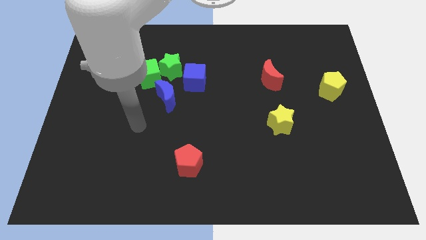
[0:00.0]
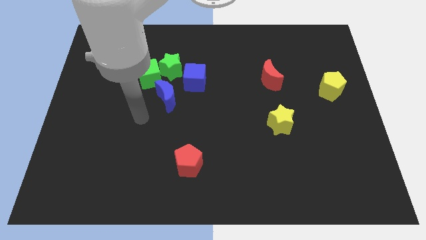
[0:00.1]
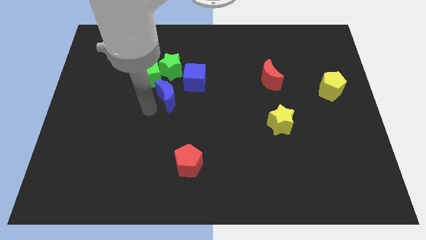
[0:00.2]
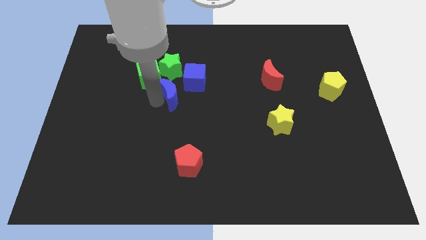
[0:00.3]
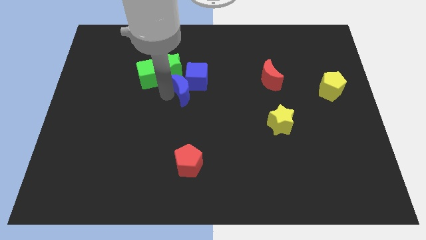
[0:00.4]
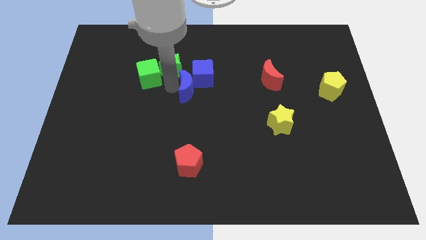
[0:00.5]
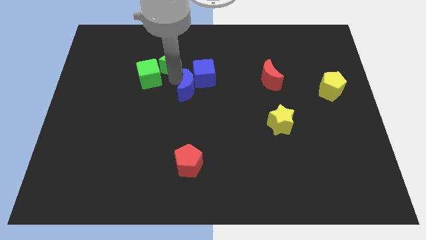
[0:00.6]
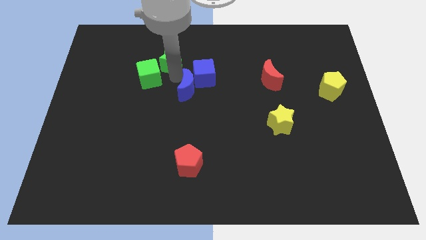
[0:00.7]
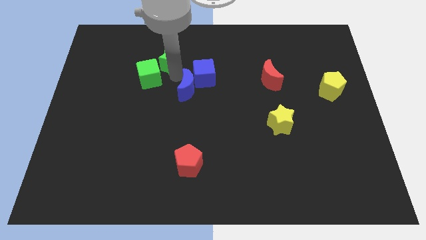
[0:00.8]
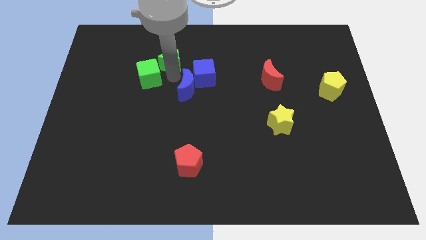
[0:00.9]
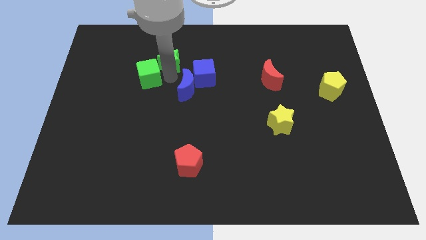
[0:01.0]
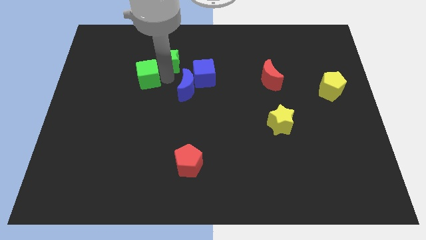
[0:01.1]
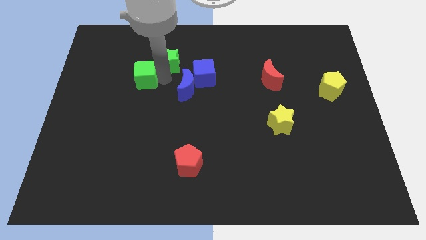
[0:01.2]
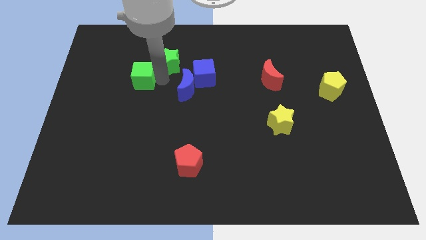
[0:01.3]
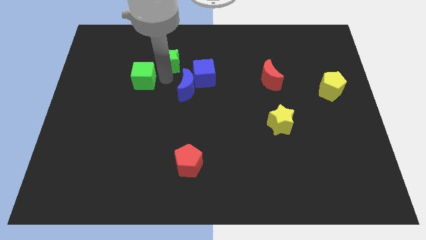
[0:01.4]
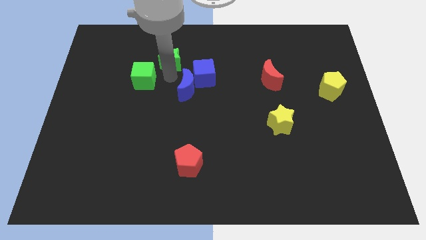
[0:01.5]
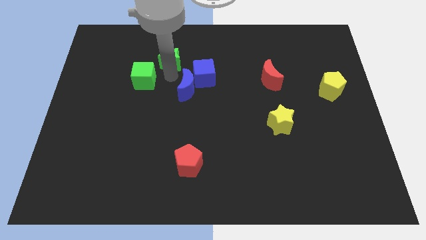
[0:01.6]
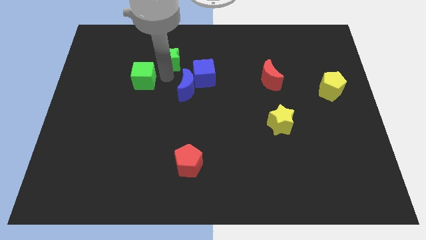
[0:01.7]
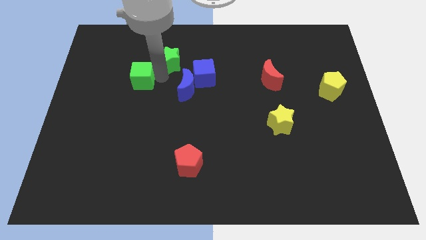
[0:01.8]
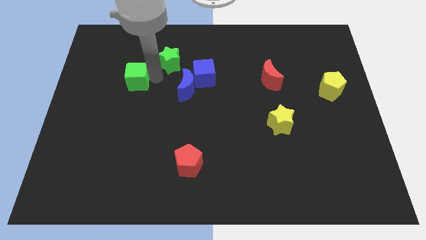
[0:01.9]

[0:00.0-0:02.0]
pull the green cube apart from the green star and blue moon

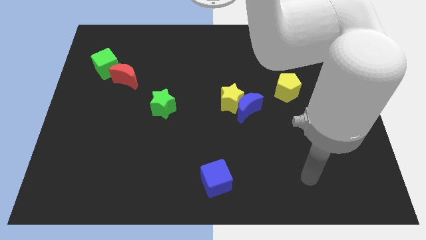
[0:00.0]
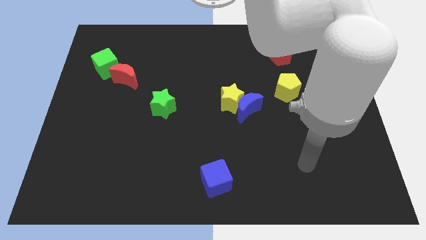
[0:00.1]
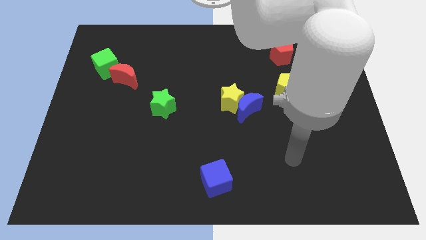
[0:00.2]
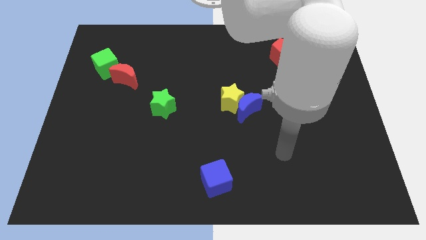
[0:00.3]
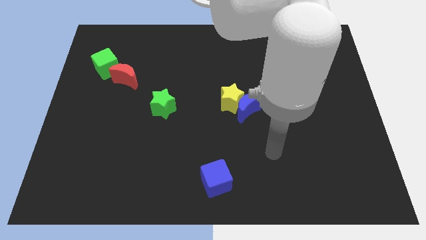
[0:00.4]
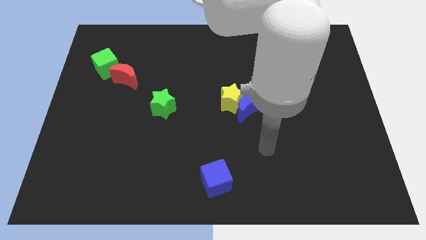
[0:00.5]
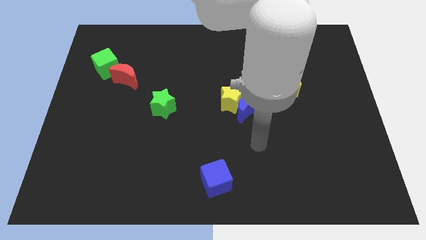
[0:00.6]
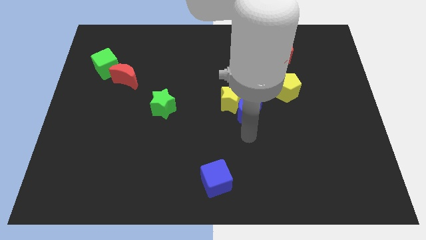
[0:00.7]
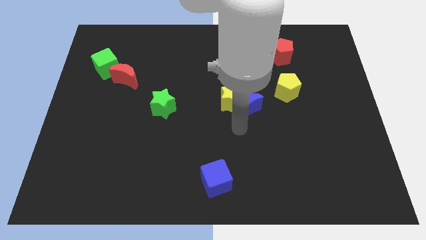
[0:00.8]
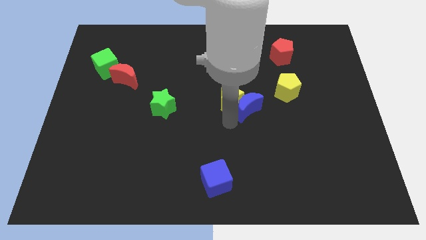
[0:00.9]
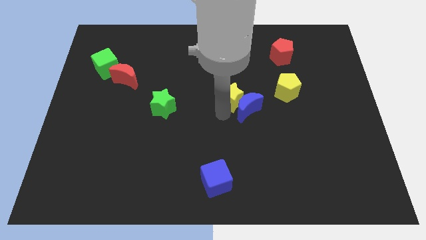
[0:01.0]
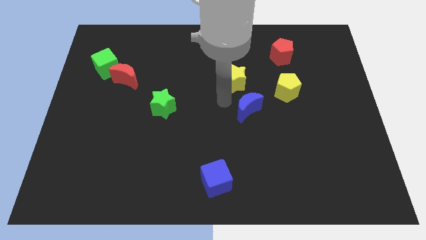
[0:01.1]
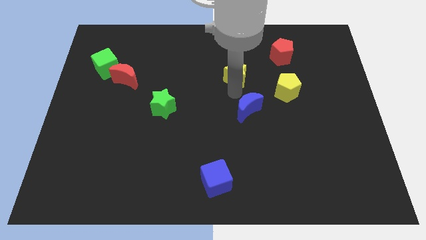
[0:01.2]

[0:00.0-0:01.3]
pull the blue moon apart from the yellow star

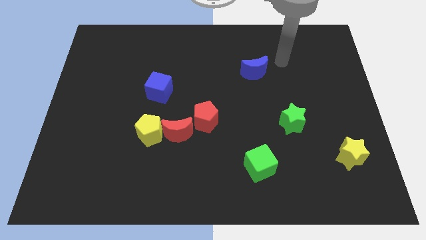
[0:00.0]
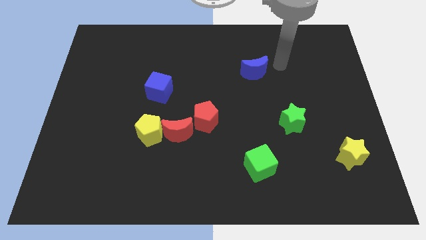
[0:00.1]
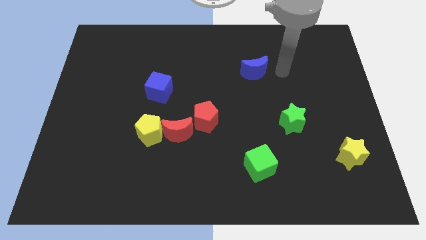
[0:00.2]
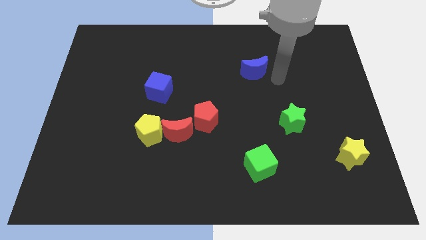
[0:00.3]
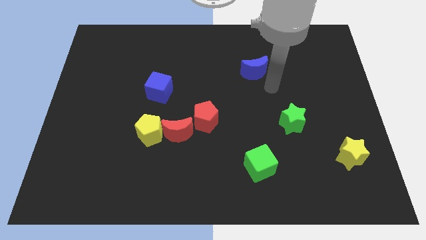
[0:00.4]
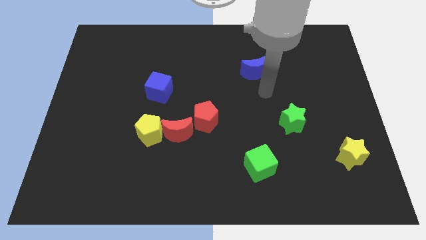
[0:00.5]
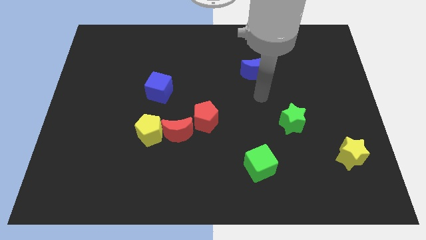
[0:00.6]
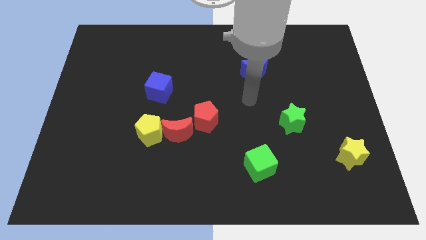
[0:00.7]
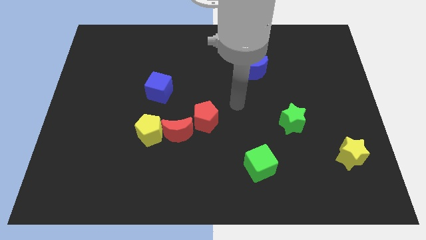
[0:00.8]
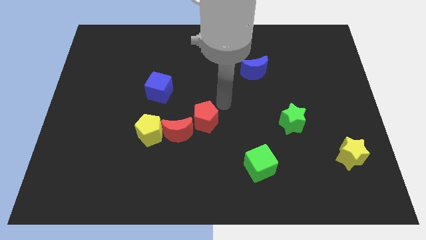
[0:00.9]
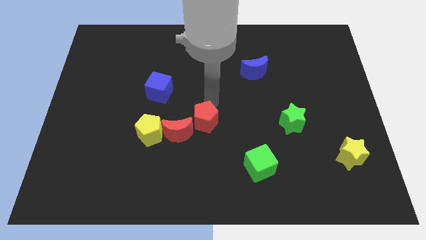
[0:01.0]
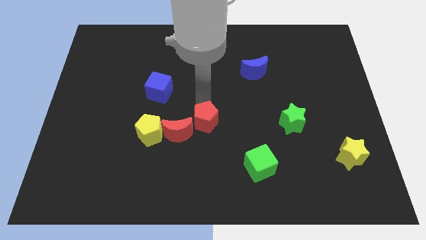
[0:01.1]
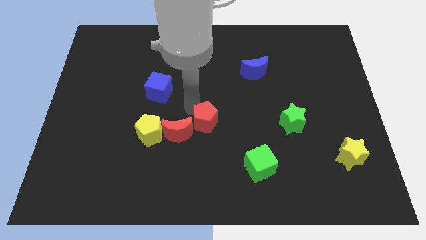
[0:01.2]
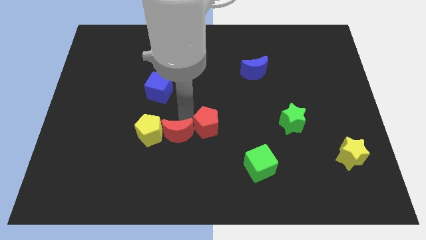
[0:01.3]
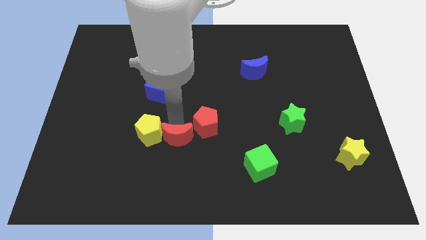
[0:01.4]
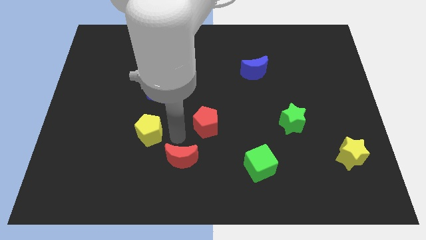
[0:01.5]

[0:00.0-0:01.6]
move the yellow pentagon away from the red moon

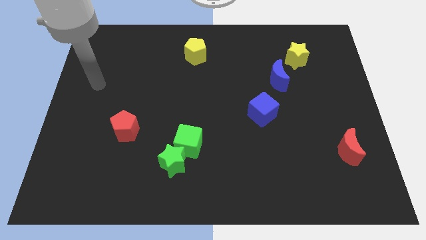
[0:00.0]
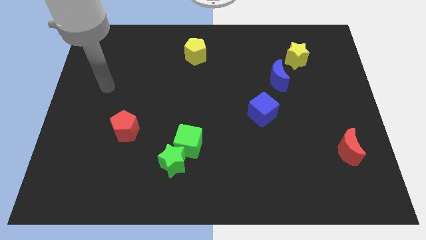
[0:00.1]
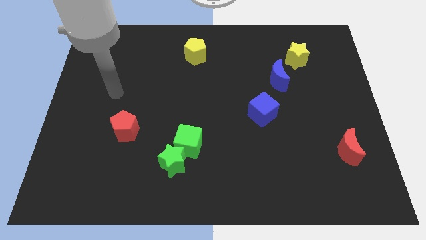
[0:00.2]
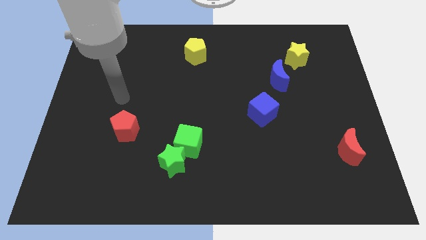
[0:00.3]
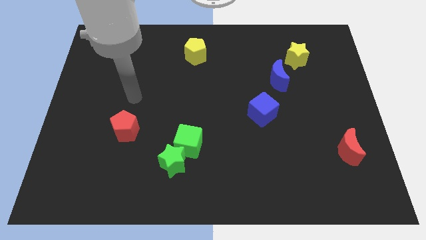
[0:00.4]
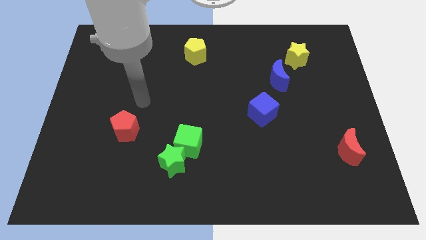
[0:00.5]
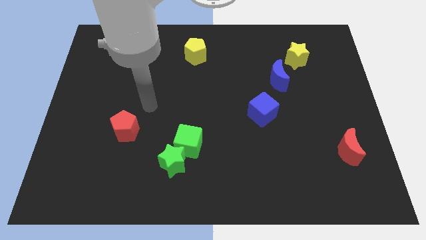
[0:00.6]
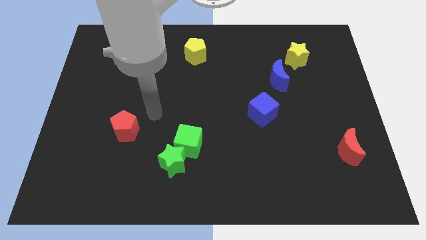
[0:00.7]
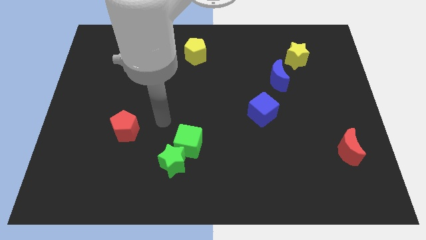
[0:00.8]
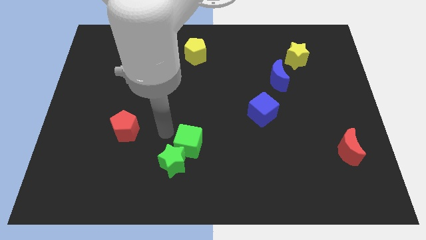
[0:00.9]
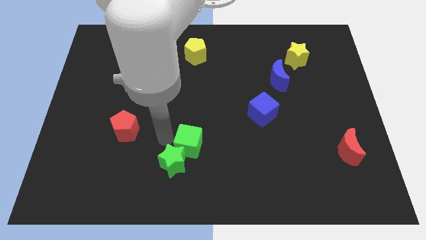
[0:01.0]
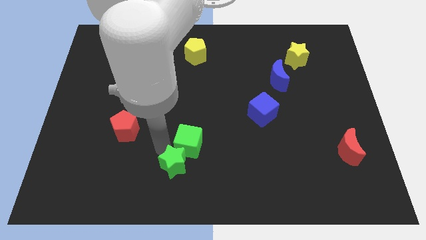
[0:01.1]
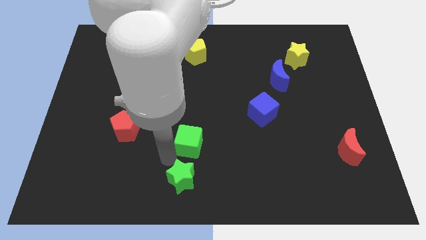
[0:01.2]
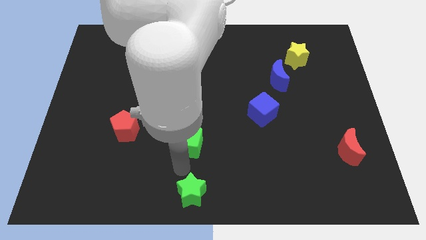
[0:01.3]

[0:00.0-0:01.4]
pull the green cube apart from the green star

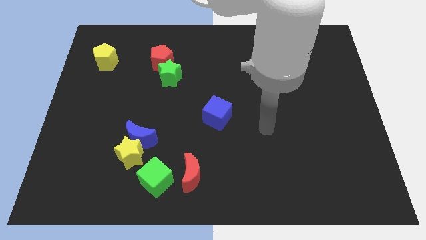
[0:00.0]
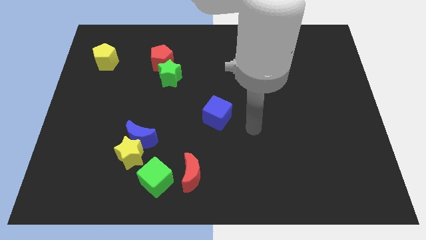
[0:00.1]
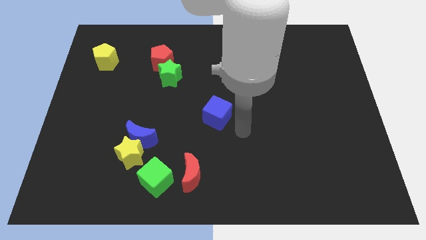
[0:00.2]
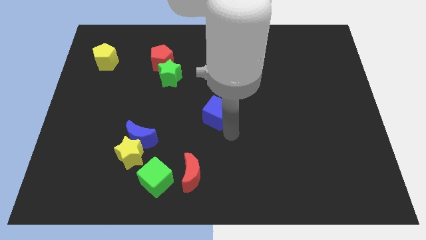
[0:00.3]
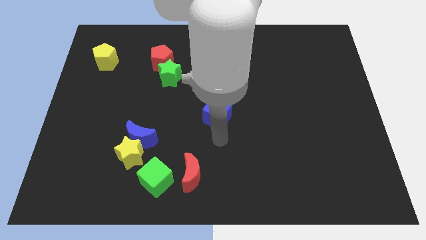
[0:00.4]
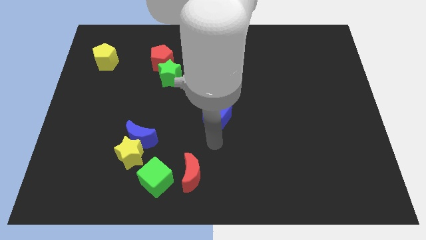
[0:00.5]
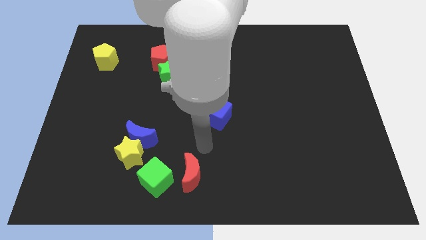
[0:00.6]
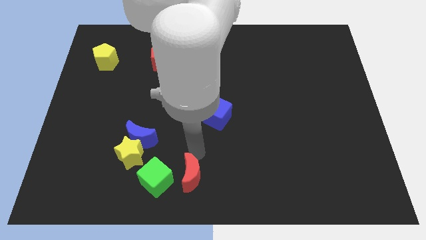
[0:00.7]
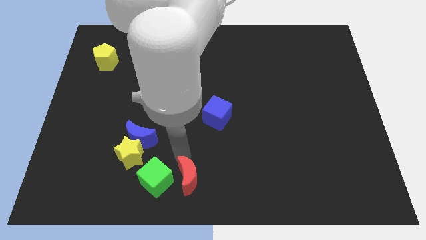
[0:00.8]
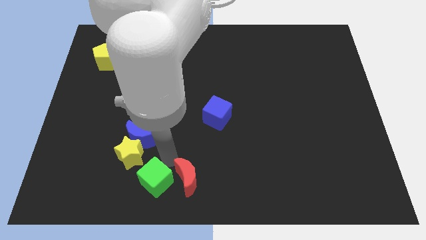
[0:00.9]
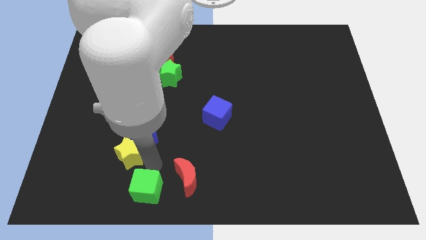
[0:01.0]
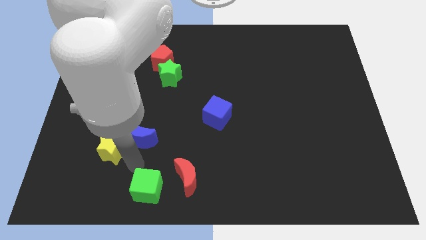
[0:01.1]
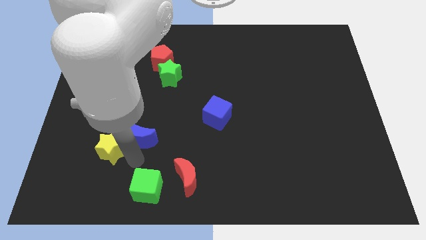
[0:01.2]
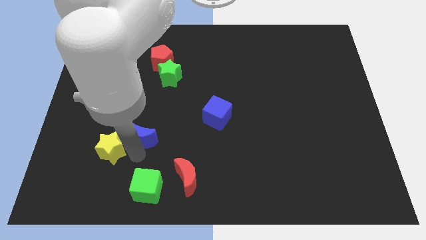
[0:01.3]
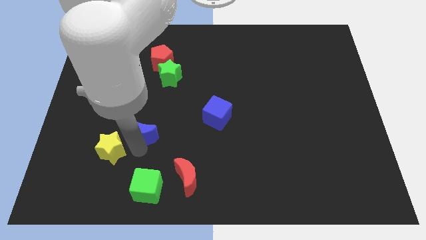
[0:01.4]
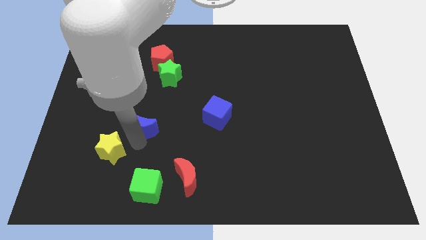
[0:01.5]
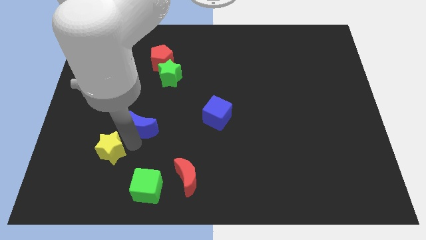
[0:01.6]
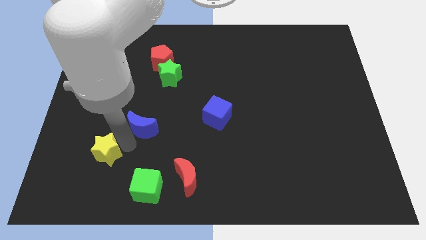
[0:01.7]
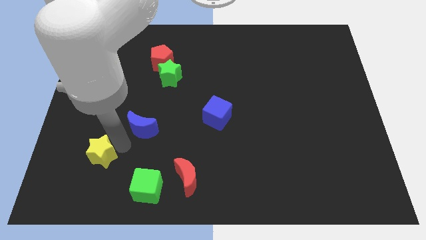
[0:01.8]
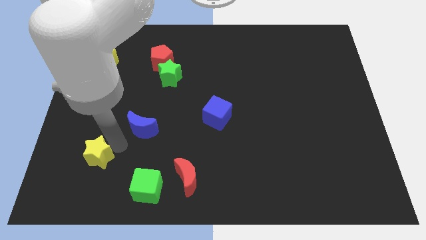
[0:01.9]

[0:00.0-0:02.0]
move the blue moon away from the yellow star

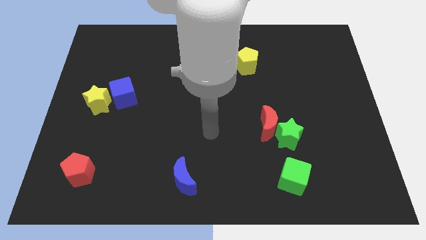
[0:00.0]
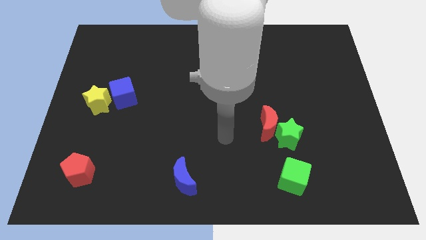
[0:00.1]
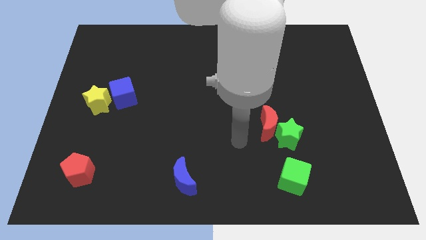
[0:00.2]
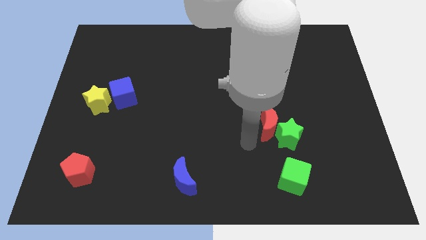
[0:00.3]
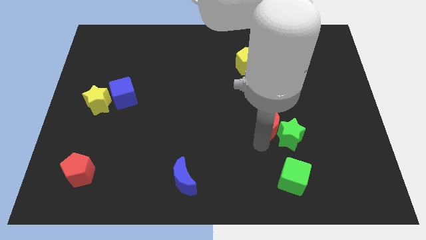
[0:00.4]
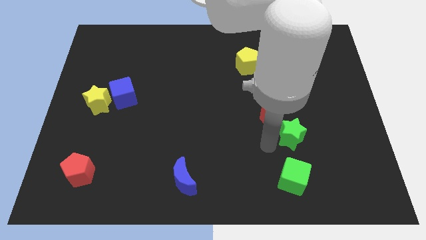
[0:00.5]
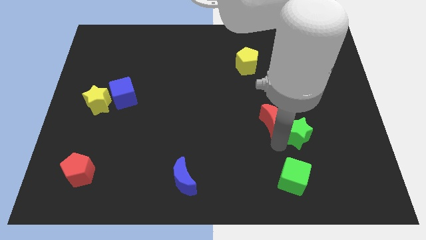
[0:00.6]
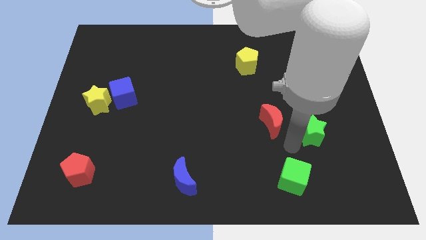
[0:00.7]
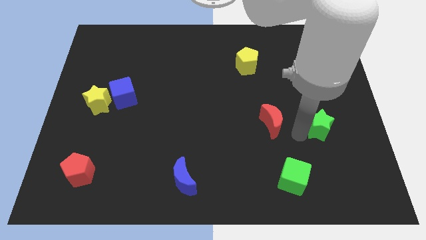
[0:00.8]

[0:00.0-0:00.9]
move the red moon away from the green star
